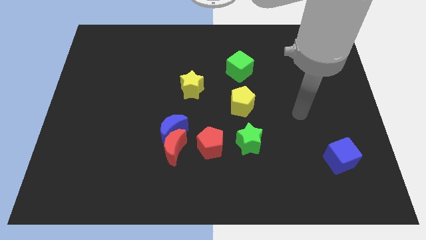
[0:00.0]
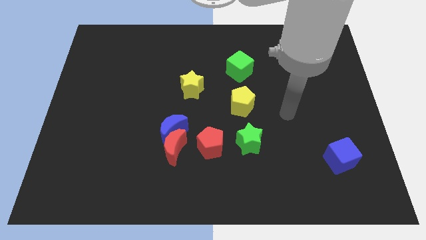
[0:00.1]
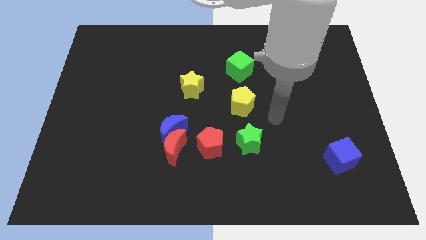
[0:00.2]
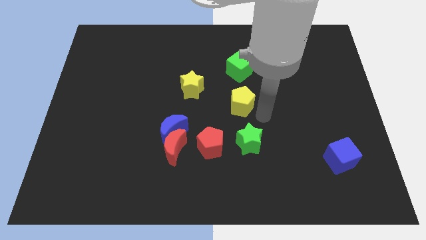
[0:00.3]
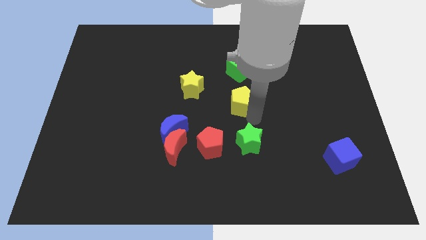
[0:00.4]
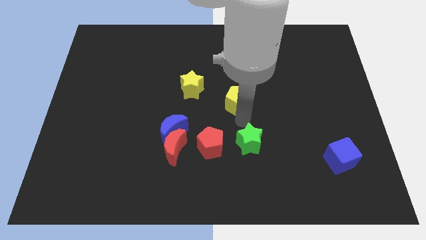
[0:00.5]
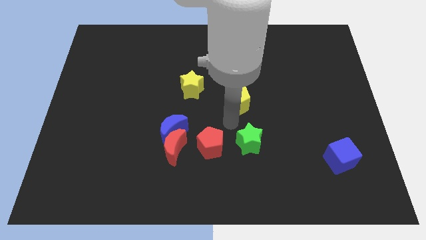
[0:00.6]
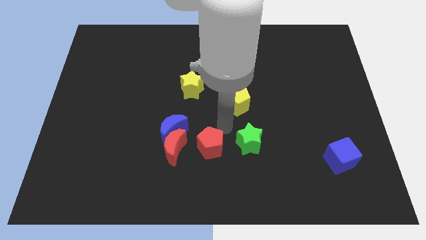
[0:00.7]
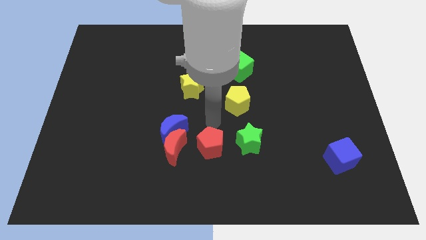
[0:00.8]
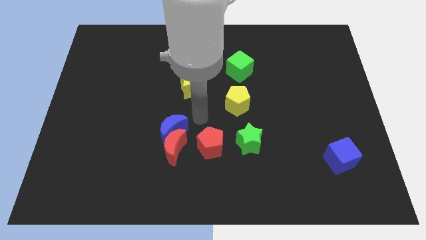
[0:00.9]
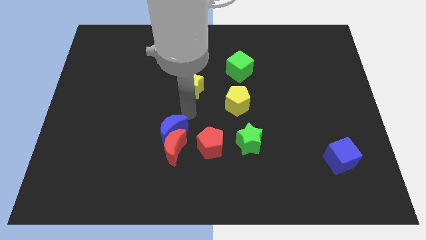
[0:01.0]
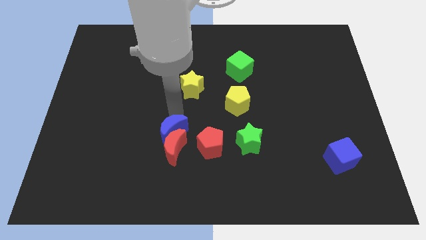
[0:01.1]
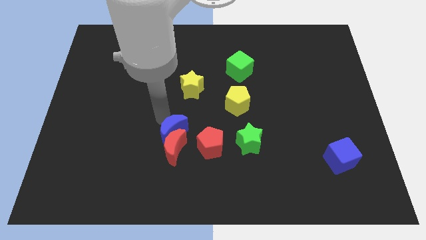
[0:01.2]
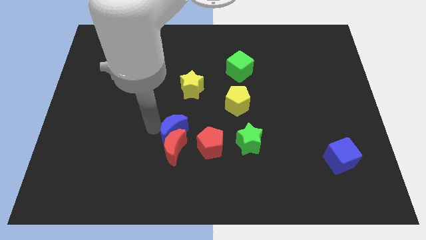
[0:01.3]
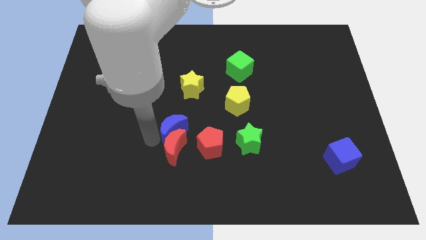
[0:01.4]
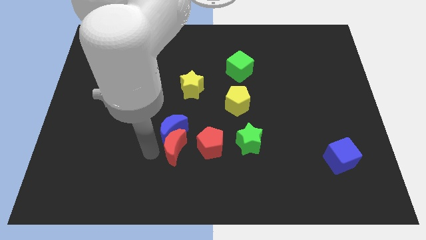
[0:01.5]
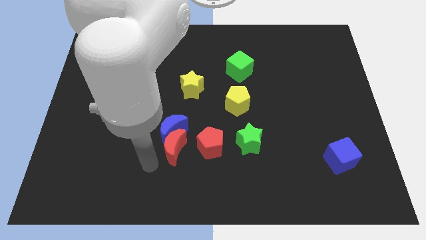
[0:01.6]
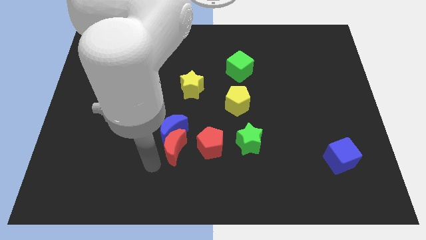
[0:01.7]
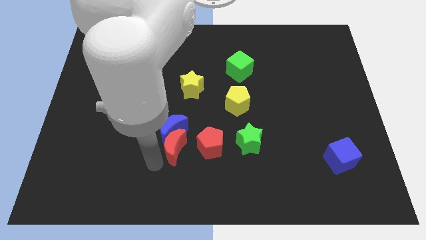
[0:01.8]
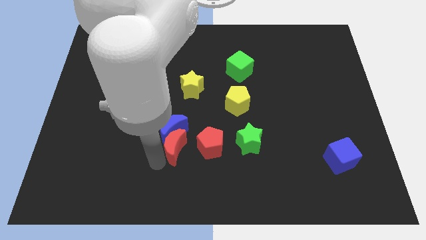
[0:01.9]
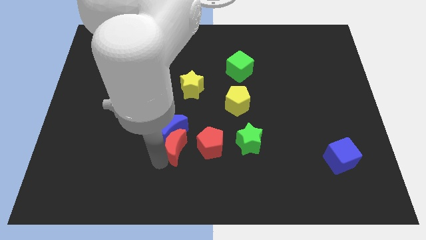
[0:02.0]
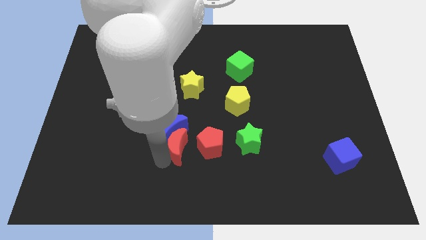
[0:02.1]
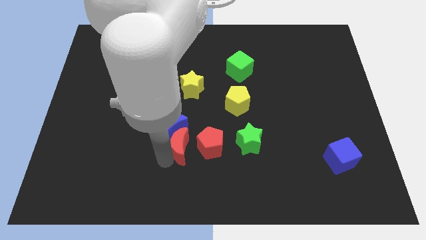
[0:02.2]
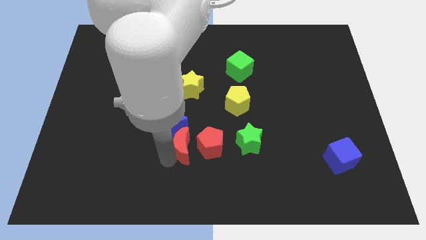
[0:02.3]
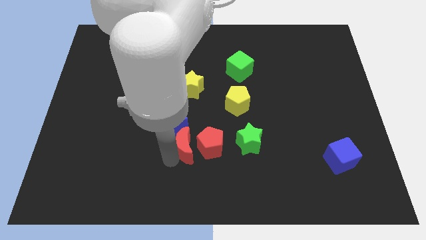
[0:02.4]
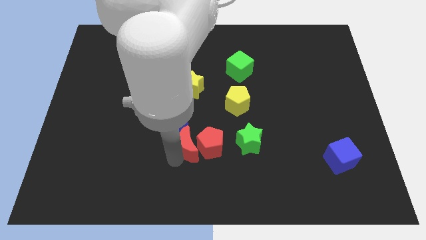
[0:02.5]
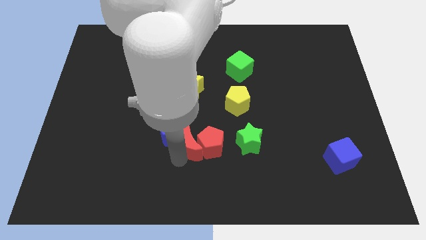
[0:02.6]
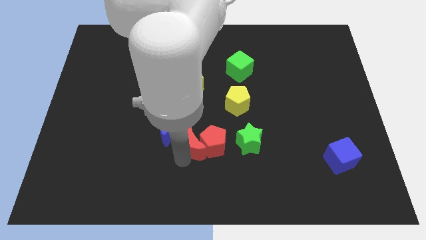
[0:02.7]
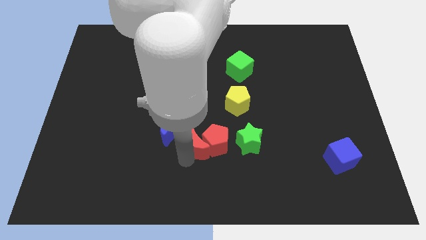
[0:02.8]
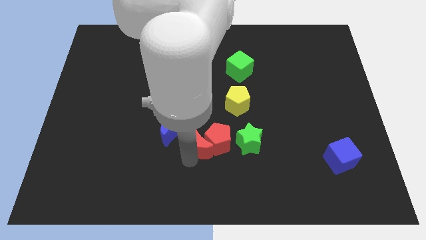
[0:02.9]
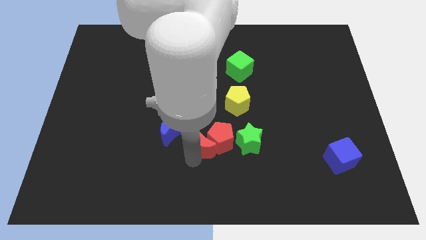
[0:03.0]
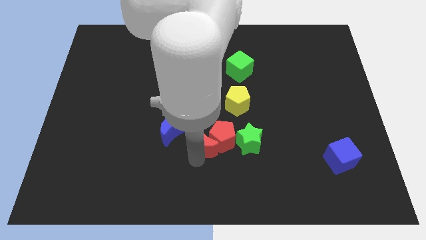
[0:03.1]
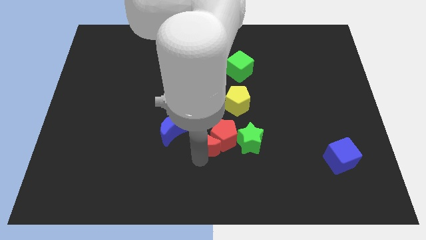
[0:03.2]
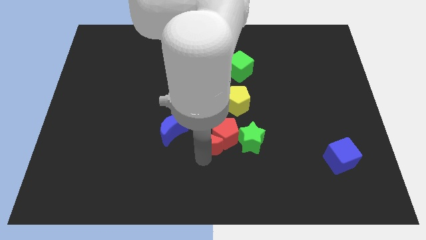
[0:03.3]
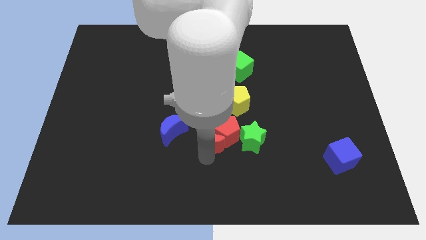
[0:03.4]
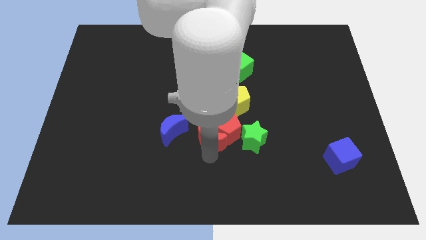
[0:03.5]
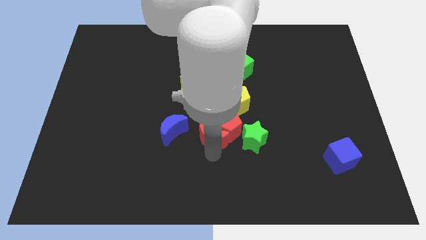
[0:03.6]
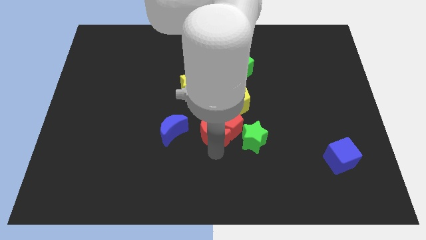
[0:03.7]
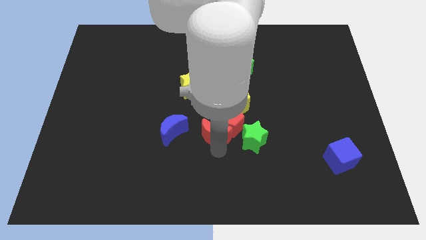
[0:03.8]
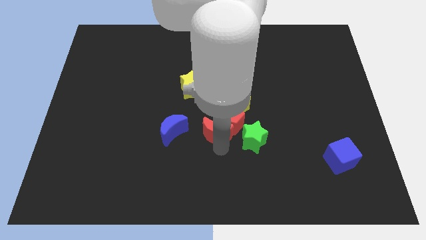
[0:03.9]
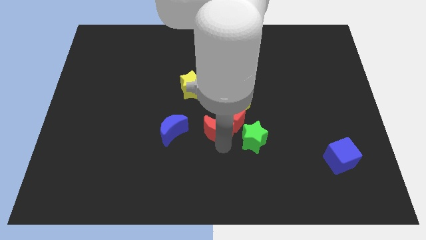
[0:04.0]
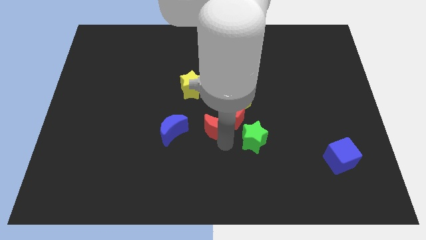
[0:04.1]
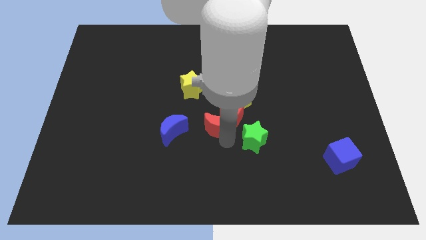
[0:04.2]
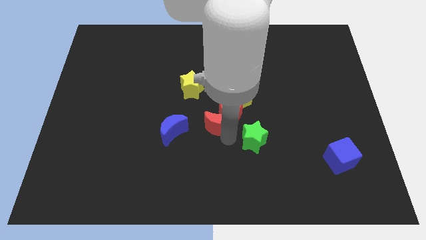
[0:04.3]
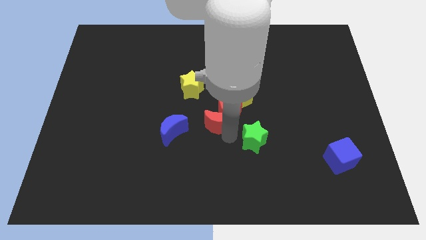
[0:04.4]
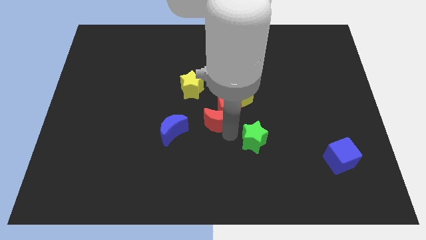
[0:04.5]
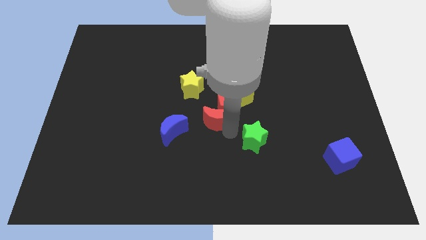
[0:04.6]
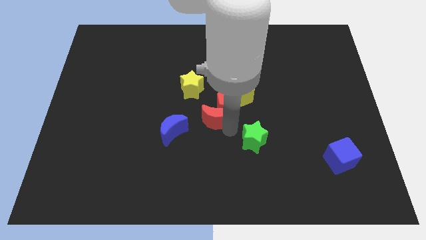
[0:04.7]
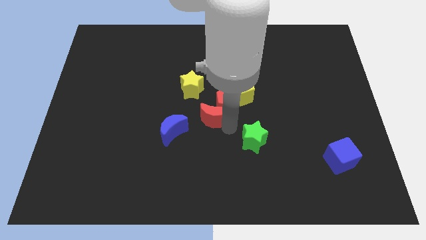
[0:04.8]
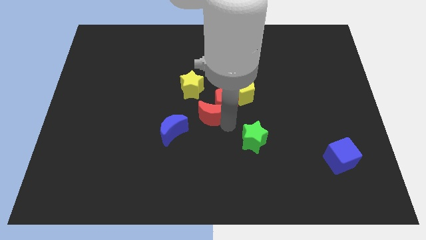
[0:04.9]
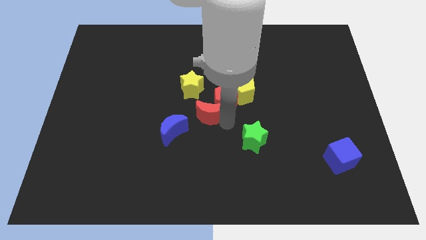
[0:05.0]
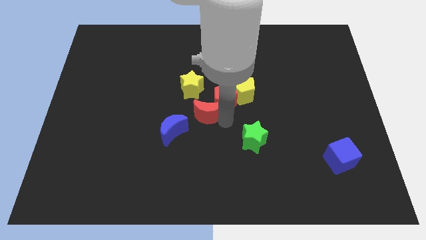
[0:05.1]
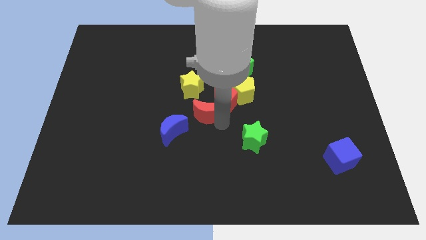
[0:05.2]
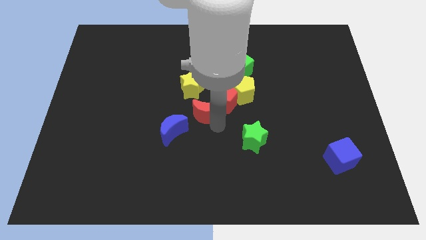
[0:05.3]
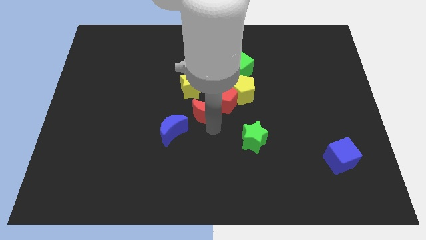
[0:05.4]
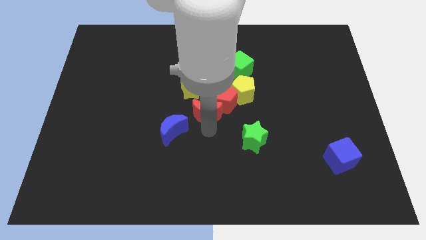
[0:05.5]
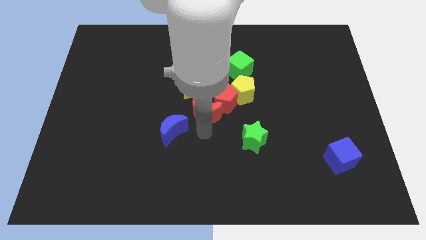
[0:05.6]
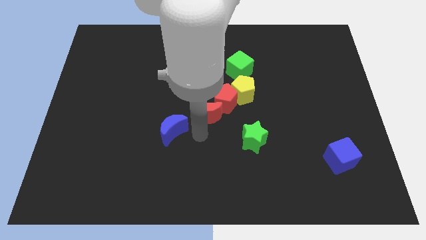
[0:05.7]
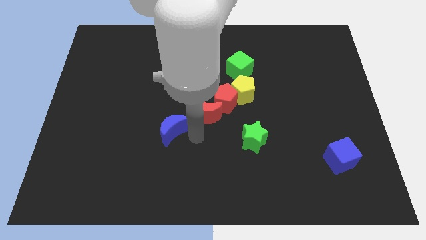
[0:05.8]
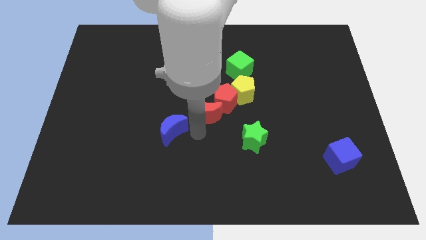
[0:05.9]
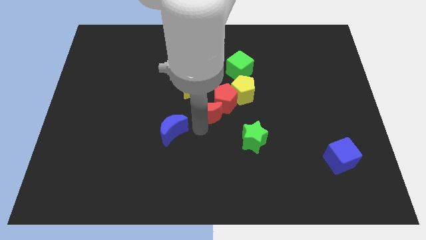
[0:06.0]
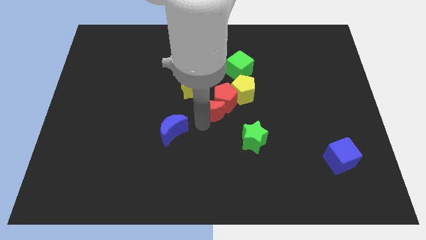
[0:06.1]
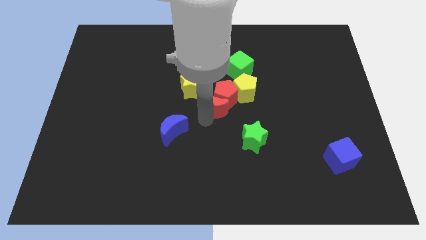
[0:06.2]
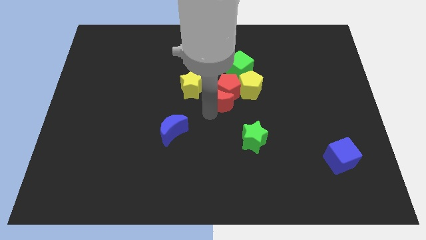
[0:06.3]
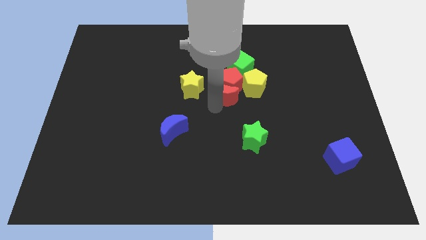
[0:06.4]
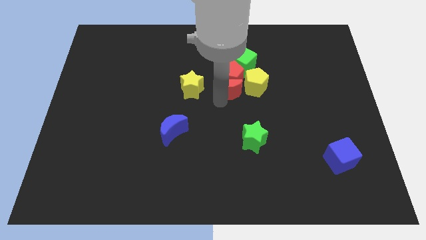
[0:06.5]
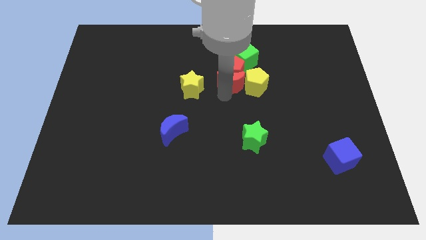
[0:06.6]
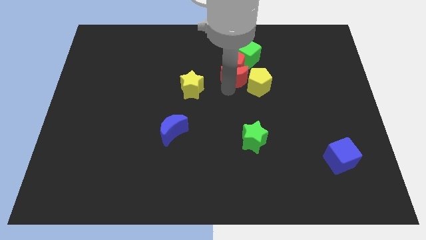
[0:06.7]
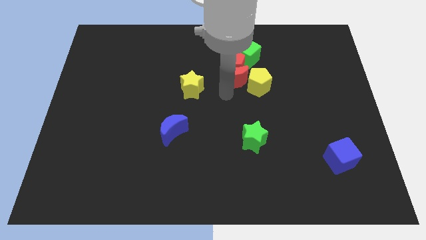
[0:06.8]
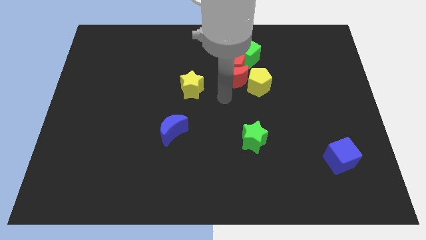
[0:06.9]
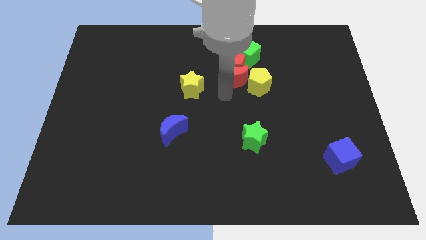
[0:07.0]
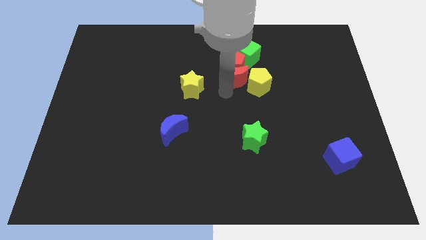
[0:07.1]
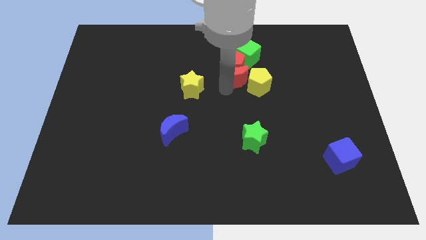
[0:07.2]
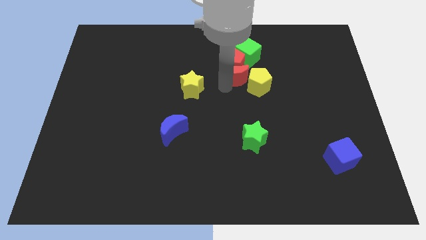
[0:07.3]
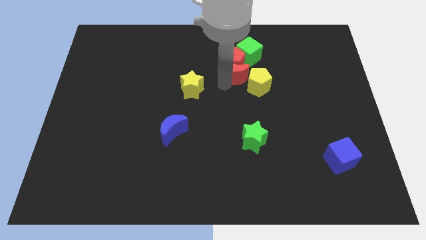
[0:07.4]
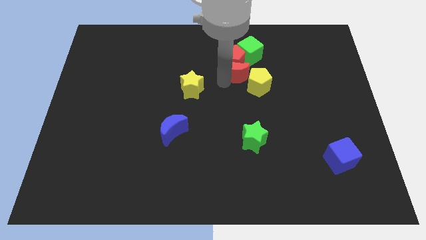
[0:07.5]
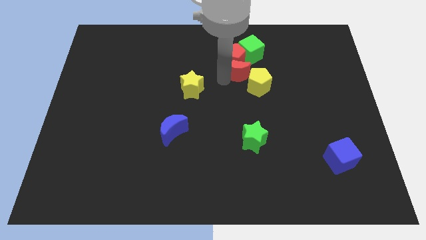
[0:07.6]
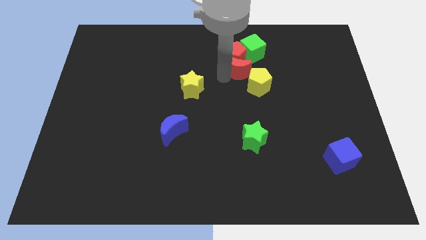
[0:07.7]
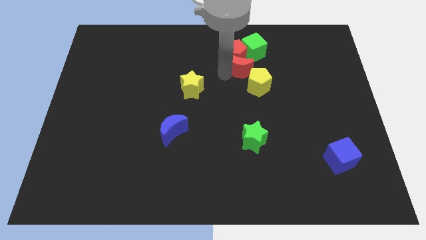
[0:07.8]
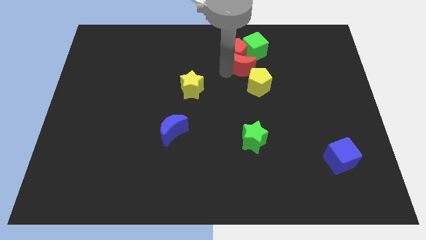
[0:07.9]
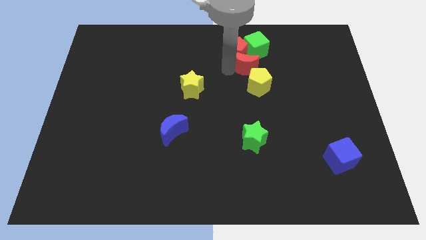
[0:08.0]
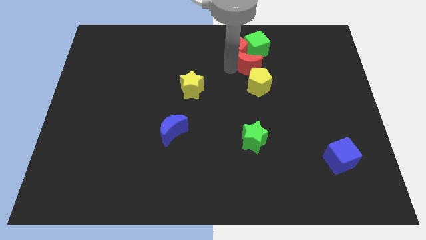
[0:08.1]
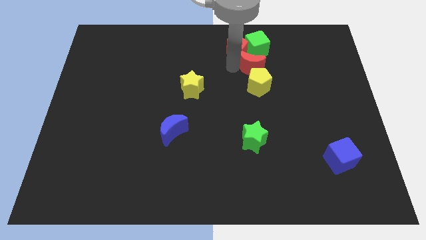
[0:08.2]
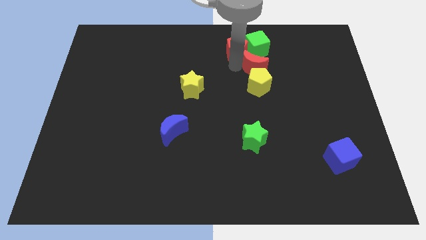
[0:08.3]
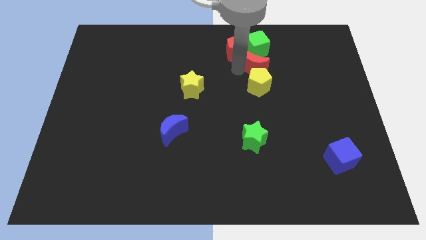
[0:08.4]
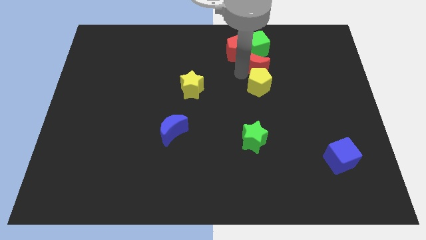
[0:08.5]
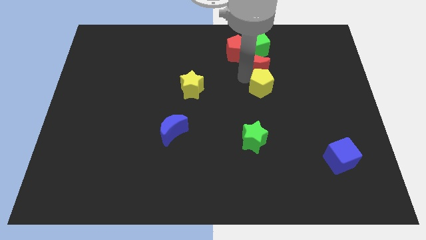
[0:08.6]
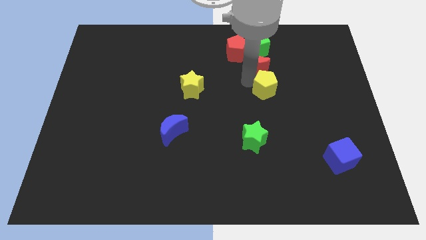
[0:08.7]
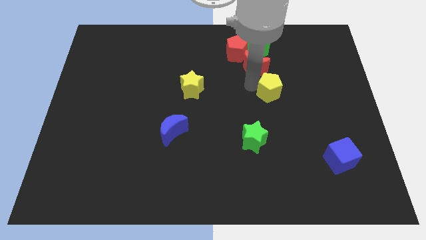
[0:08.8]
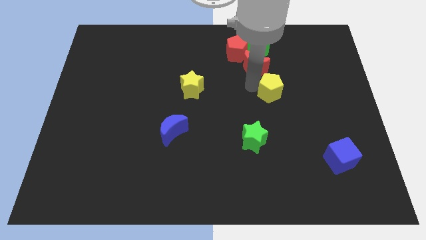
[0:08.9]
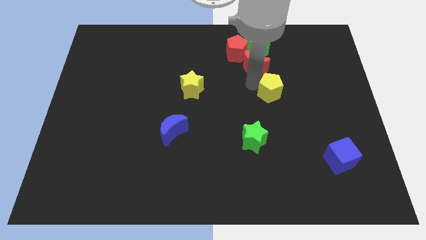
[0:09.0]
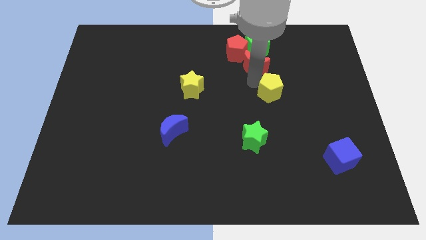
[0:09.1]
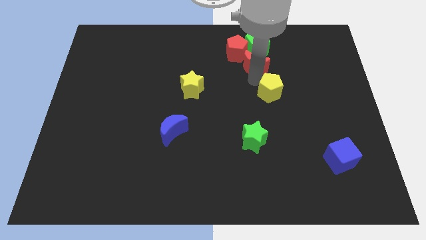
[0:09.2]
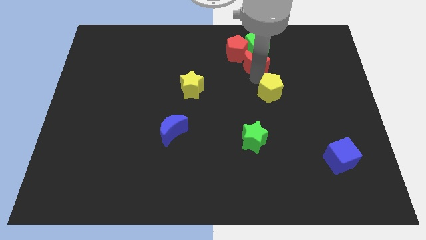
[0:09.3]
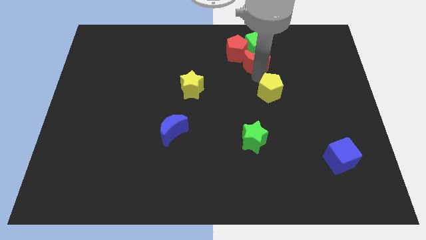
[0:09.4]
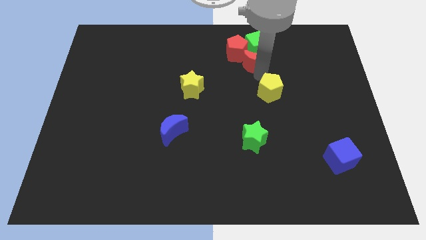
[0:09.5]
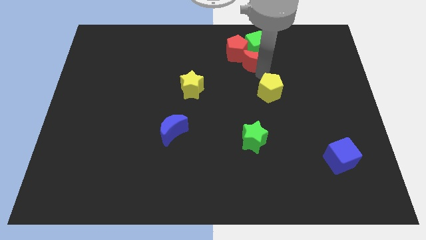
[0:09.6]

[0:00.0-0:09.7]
put the red moon towards the green cube
